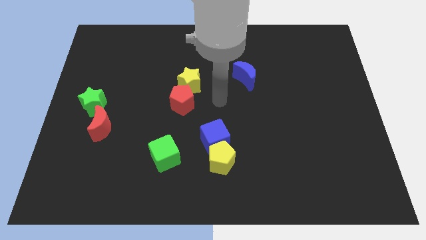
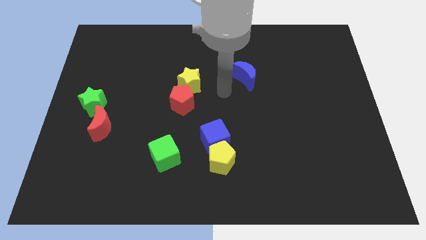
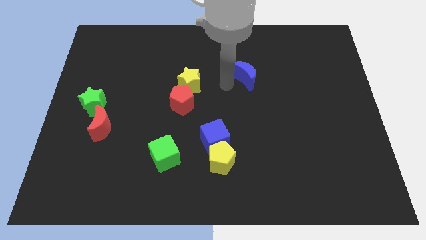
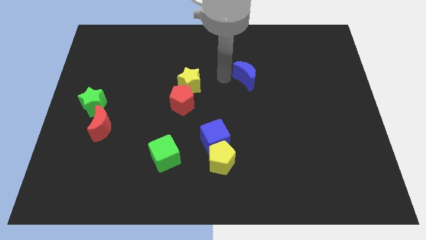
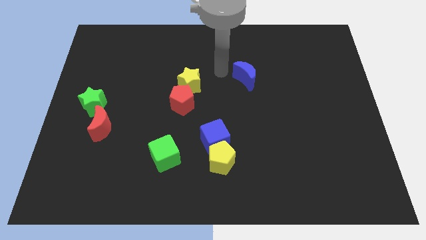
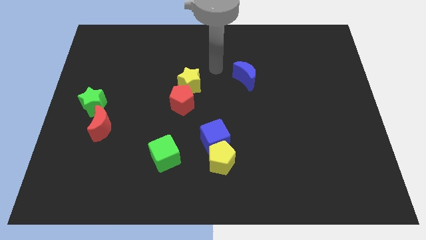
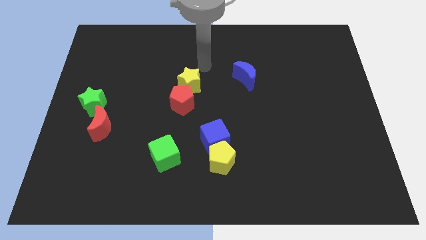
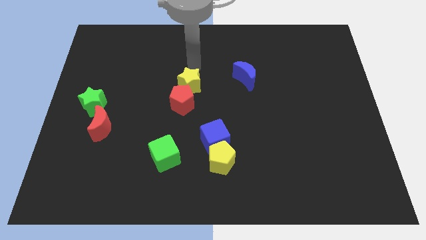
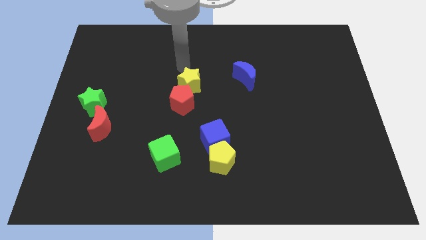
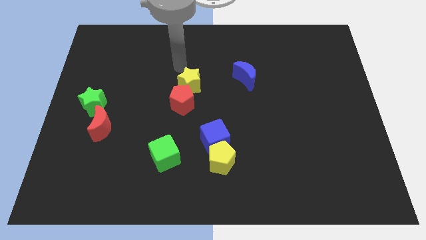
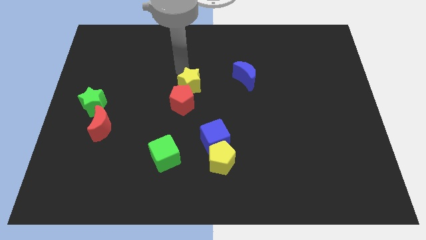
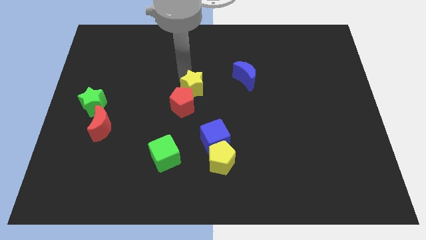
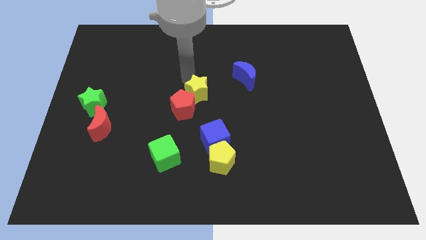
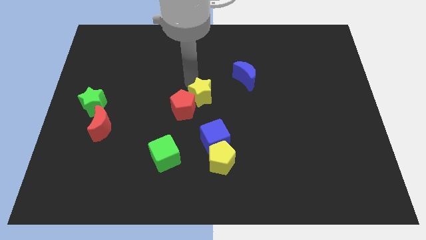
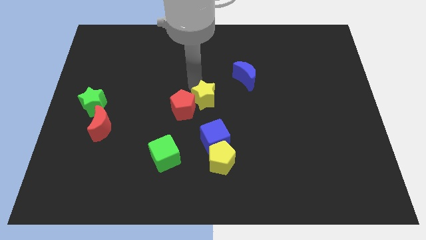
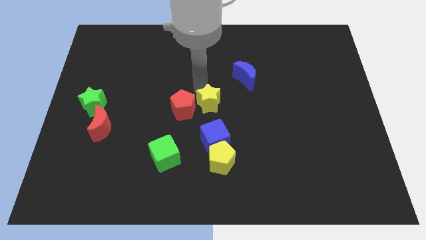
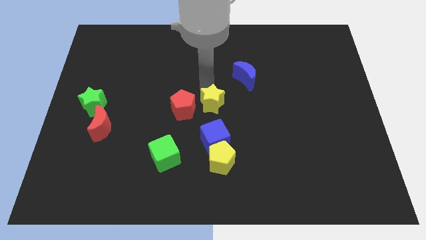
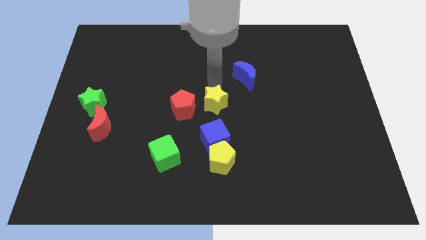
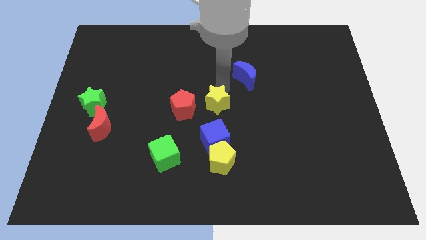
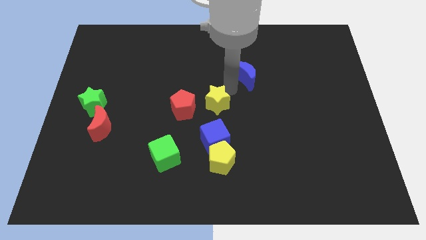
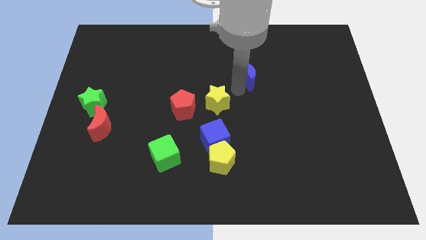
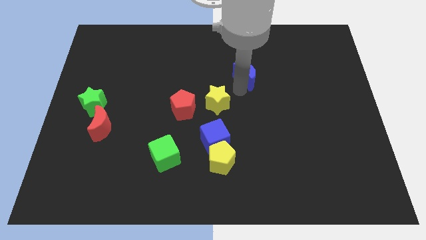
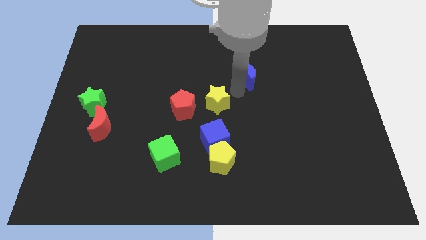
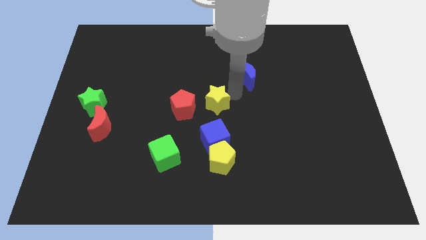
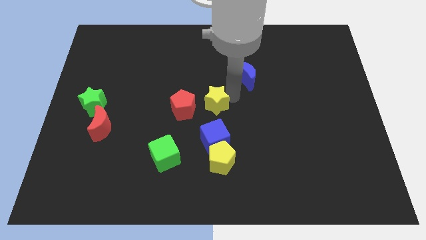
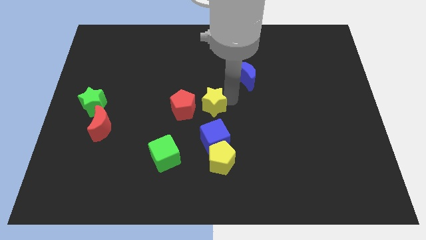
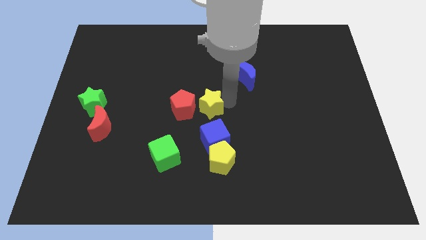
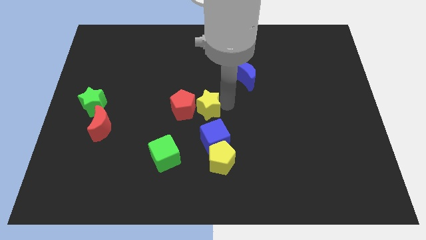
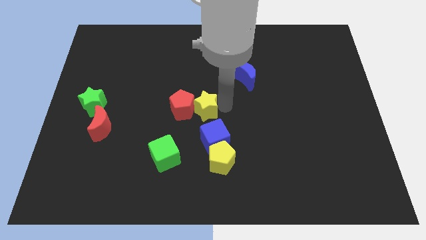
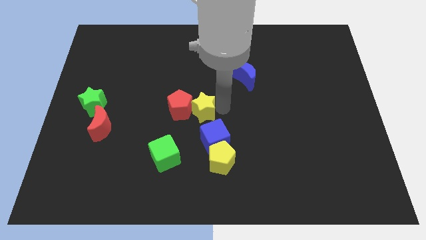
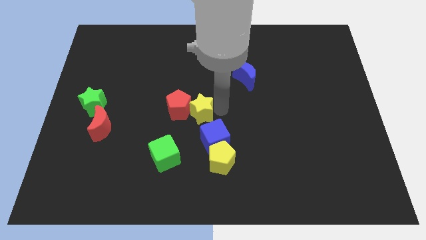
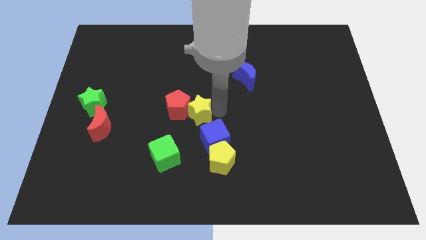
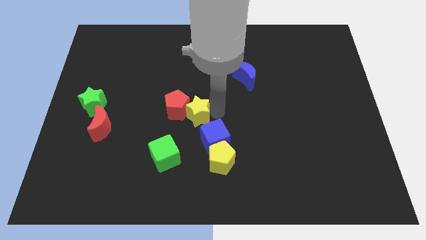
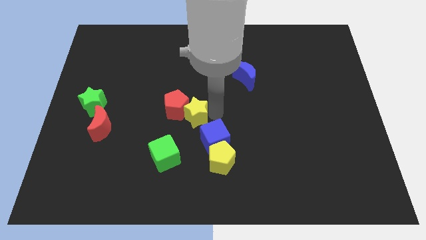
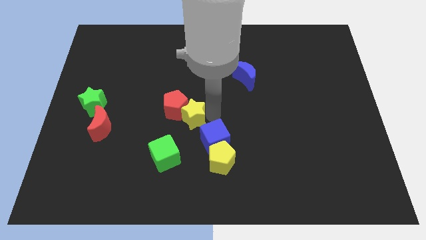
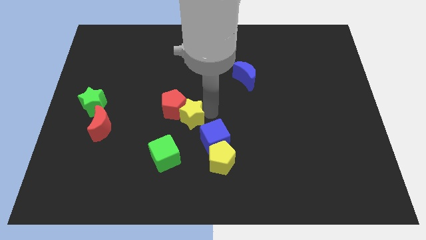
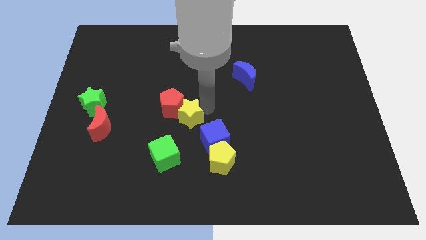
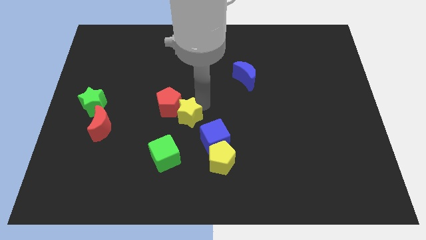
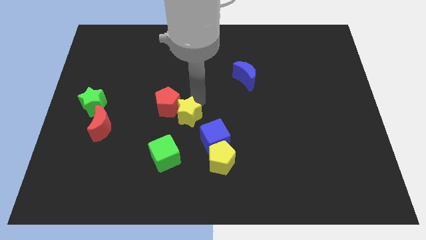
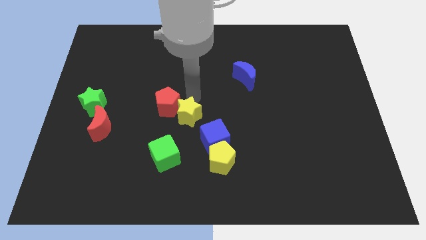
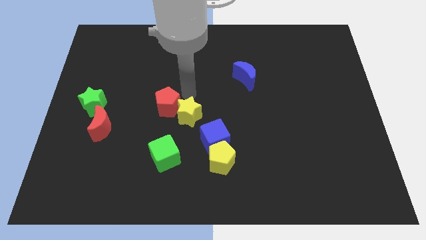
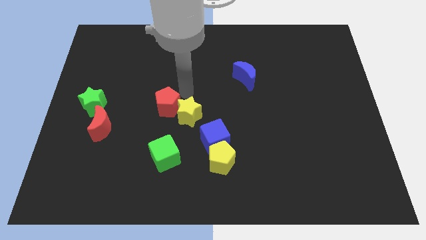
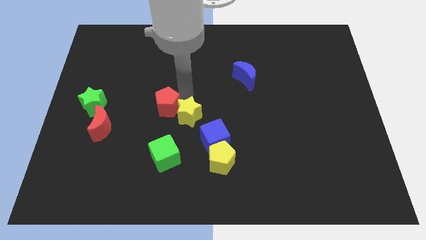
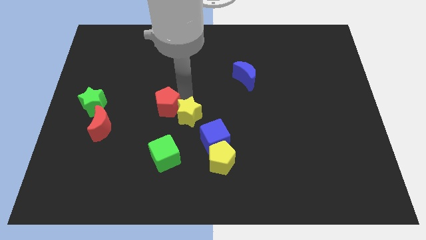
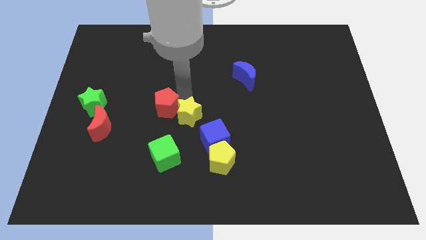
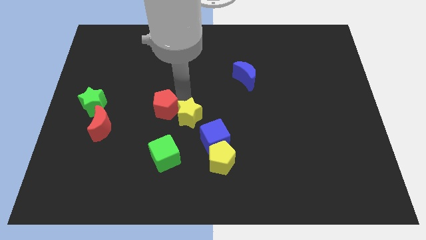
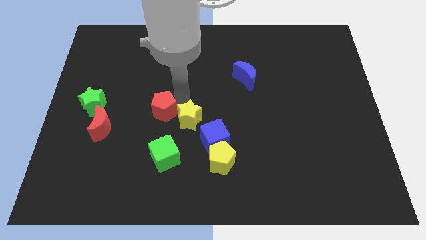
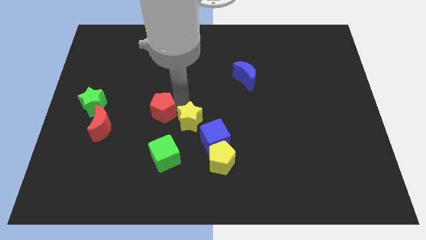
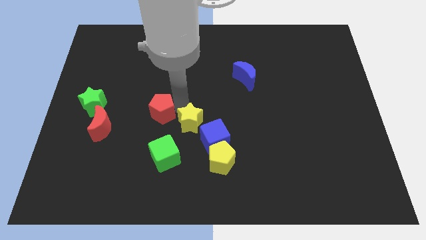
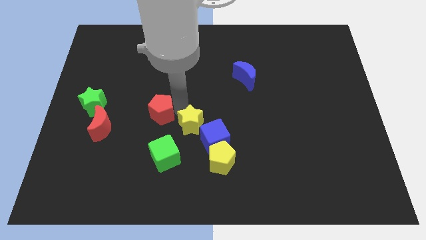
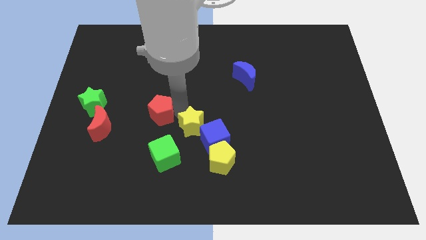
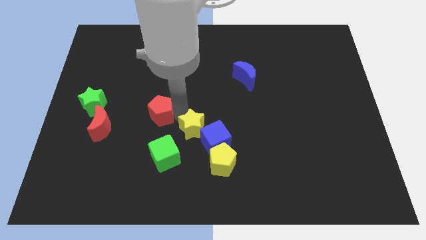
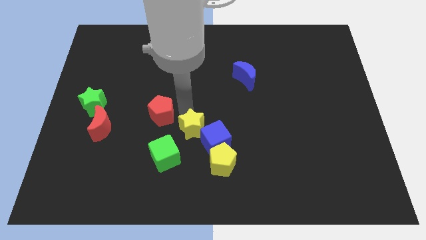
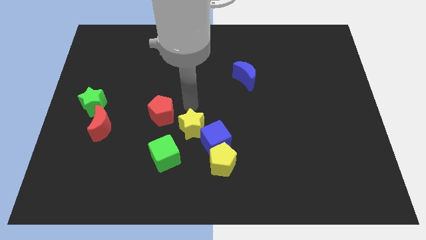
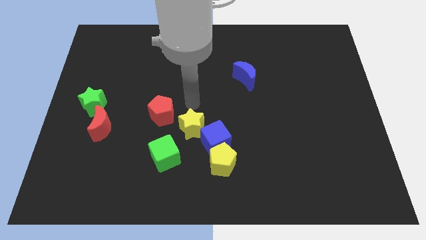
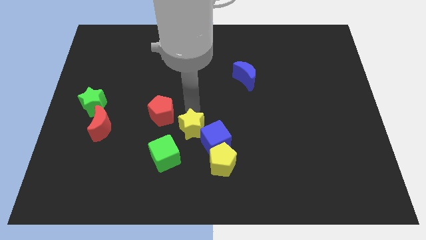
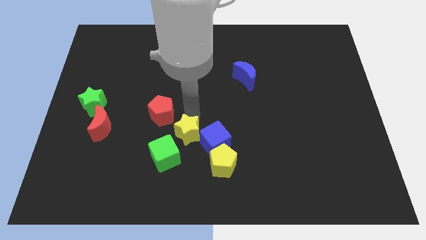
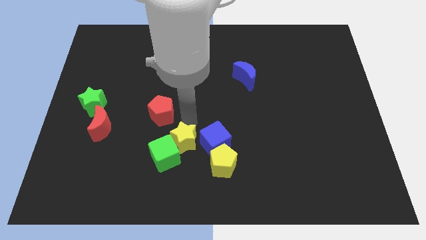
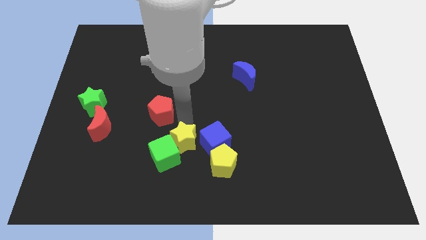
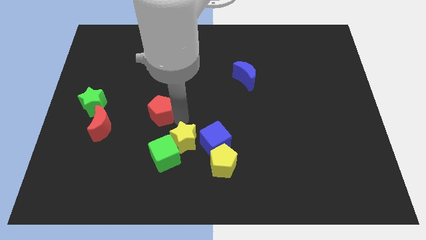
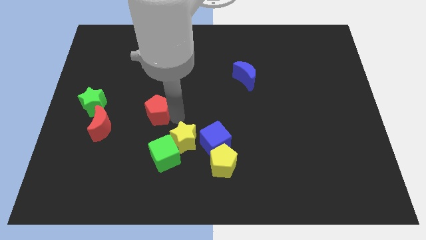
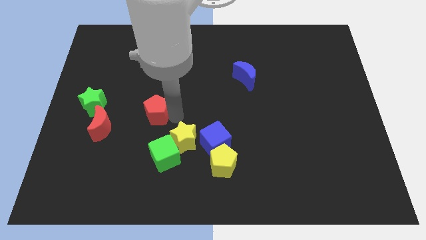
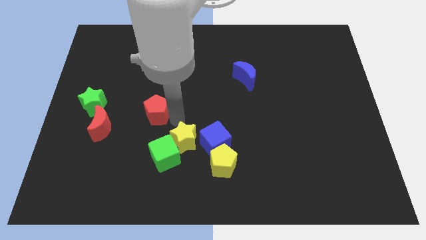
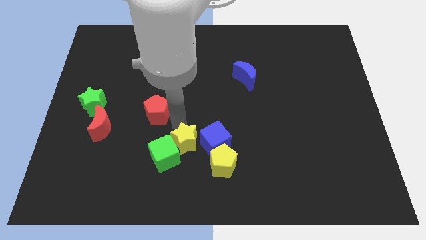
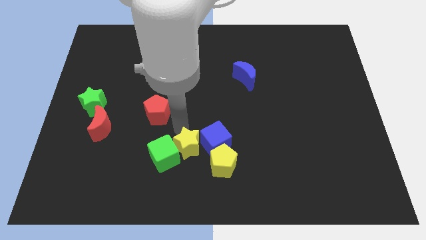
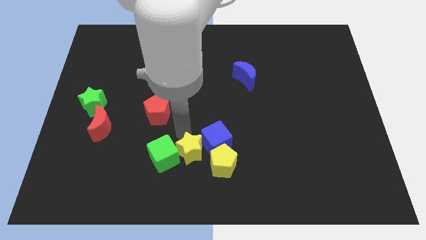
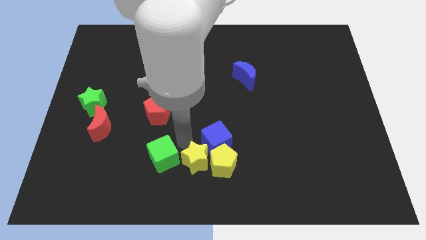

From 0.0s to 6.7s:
put the yellow star next to the yellow pentagon

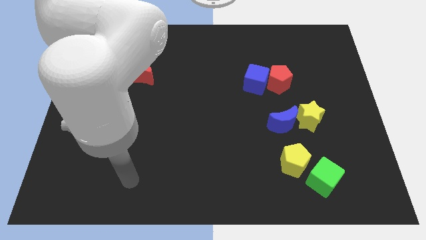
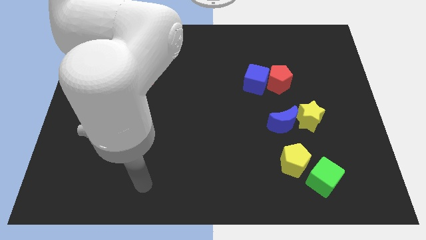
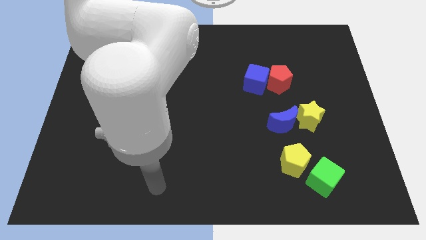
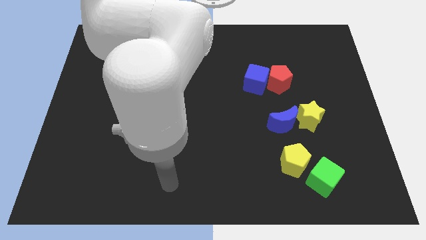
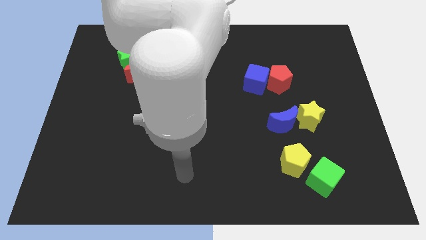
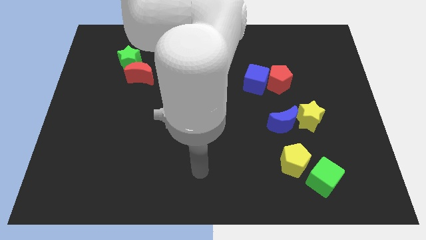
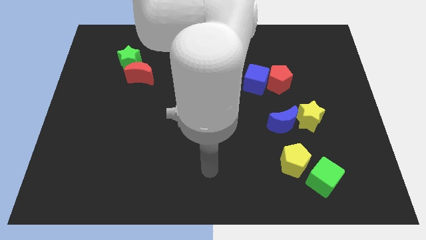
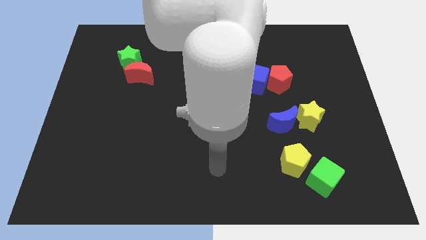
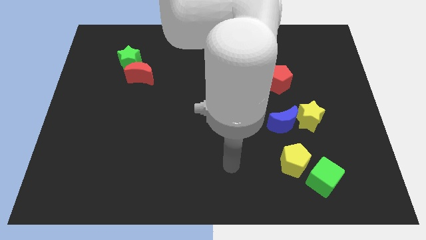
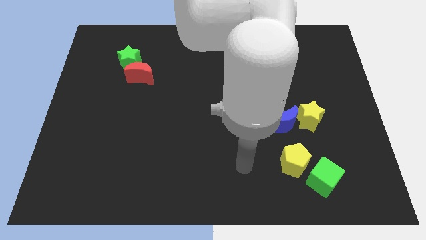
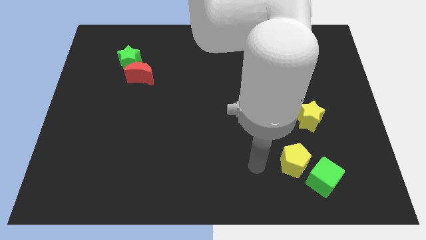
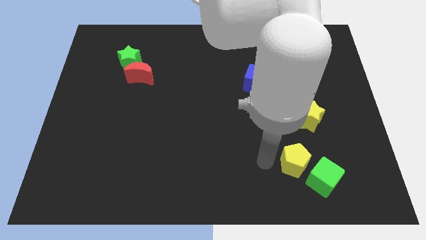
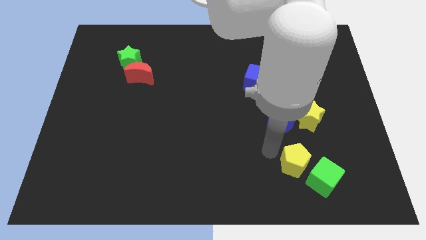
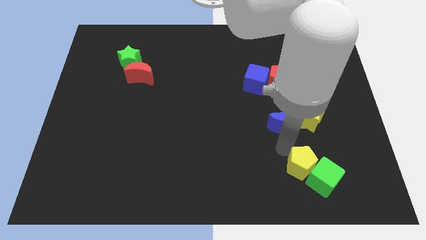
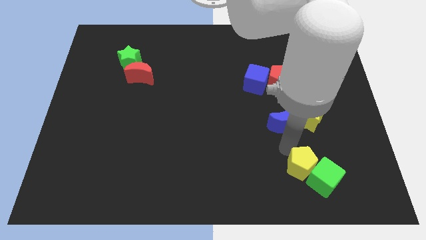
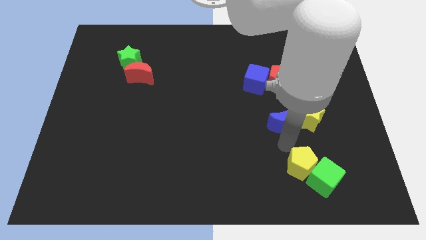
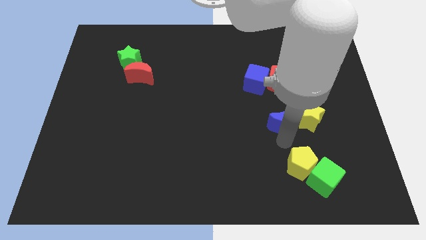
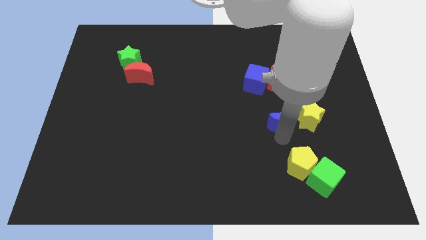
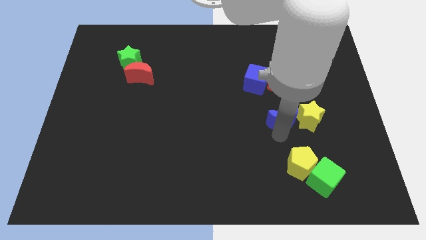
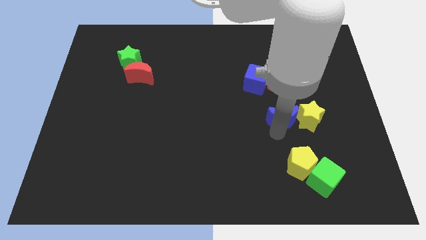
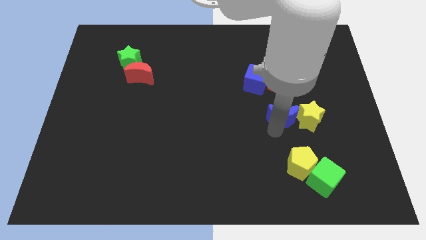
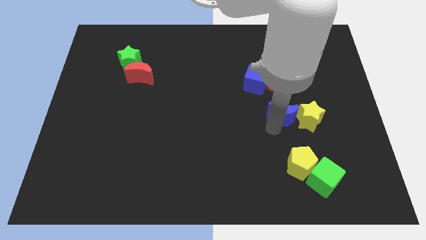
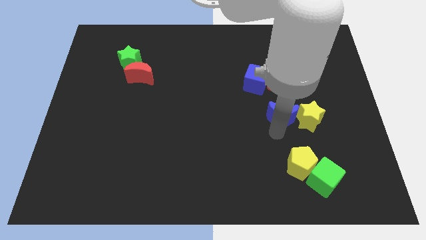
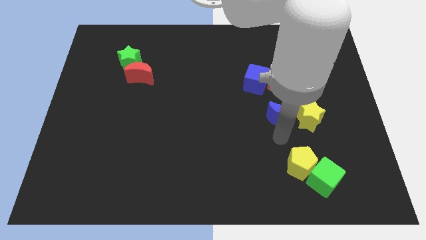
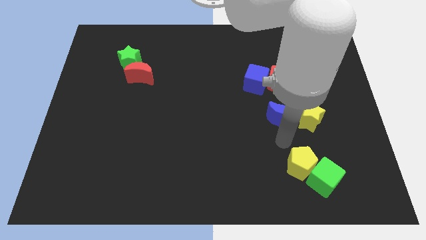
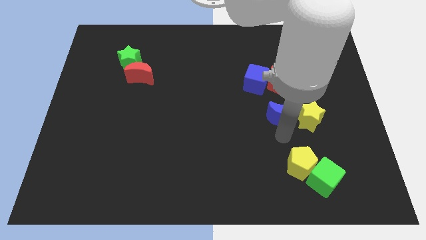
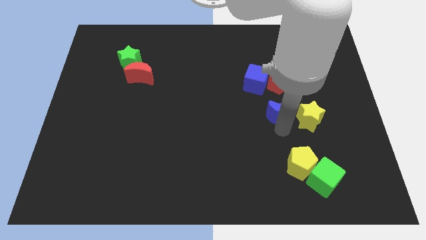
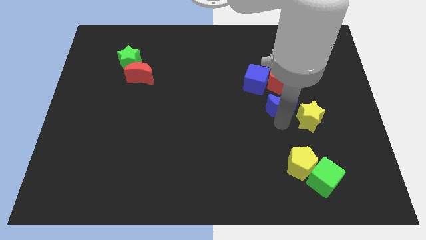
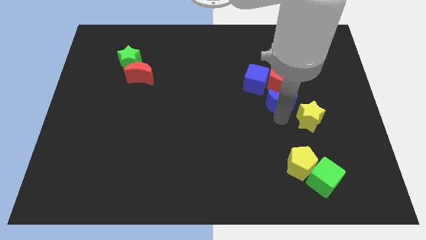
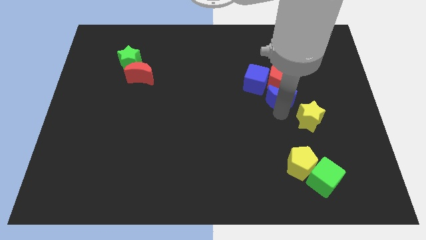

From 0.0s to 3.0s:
put the blue moon next to the red pentagon
